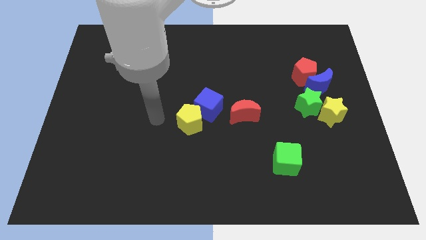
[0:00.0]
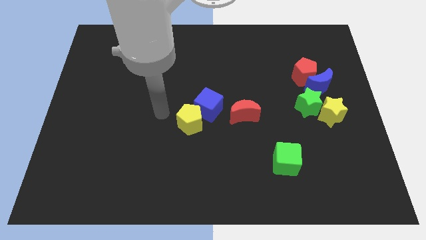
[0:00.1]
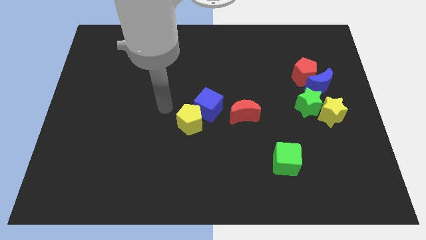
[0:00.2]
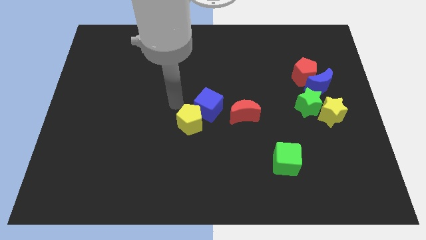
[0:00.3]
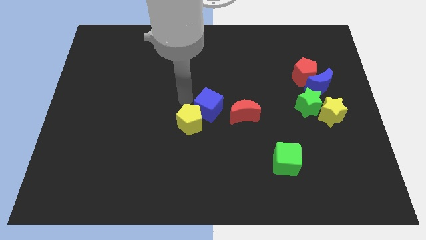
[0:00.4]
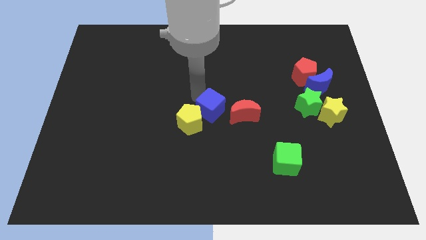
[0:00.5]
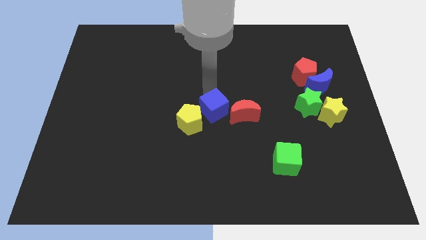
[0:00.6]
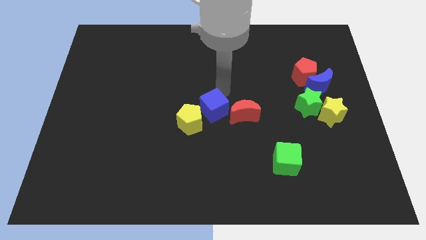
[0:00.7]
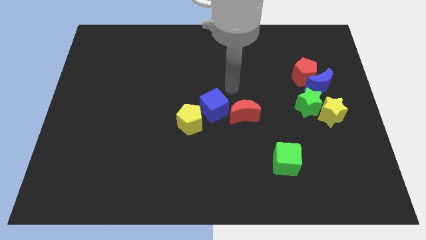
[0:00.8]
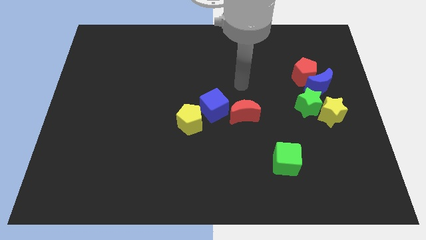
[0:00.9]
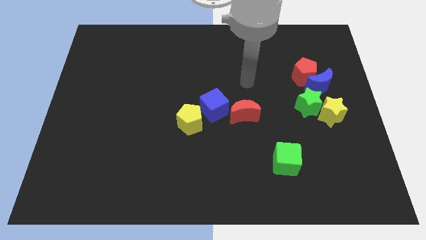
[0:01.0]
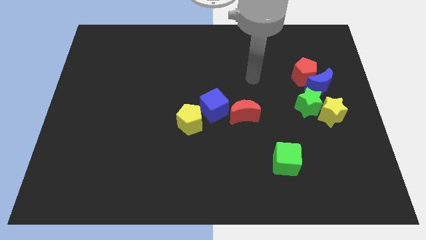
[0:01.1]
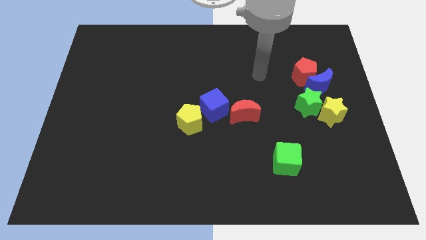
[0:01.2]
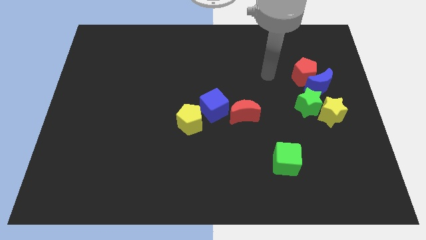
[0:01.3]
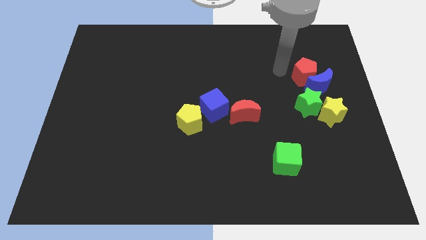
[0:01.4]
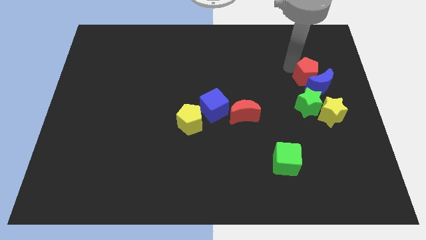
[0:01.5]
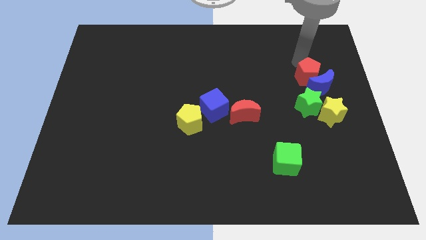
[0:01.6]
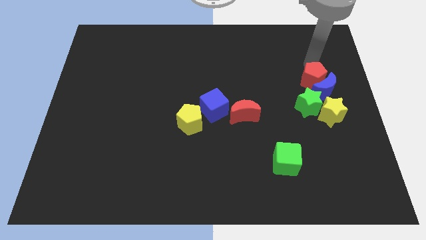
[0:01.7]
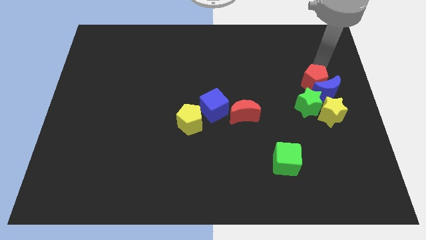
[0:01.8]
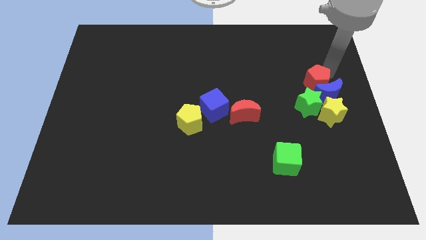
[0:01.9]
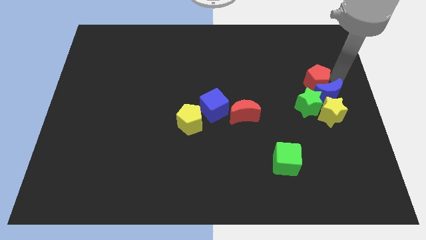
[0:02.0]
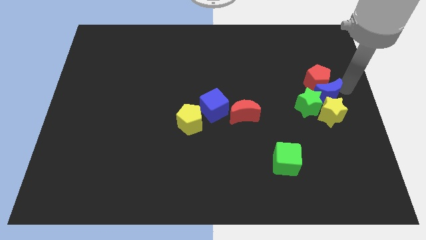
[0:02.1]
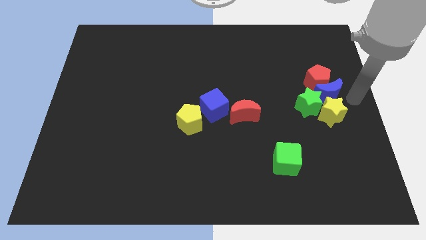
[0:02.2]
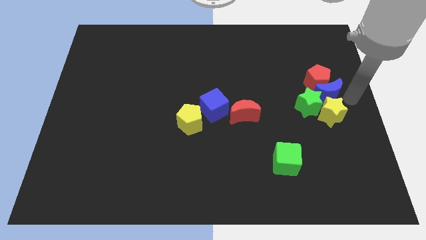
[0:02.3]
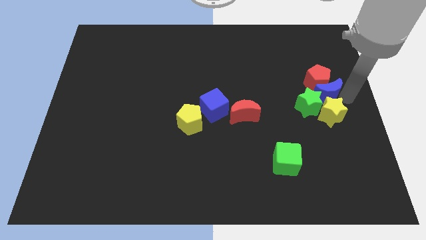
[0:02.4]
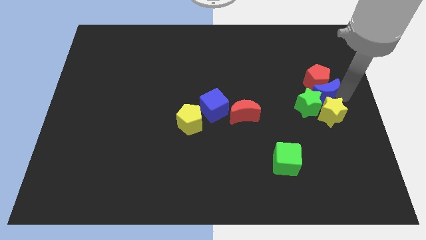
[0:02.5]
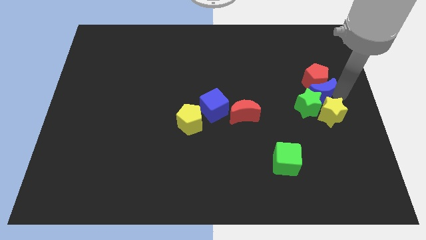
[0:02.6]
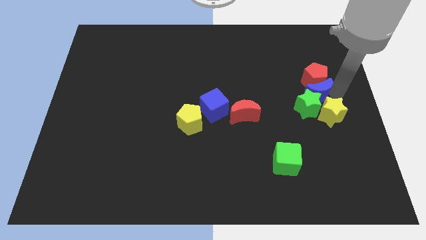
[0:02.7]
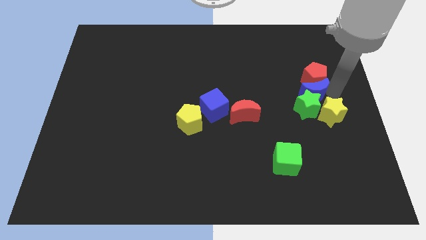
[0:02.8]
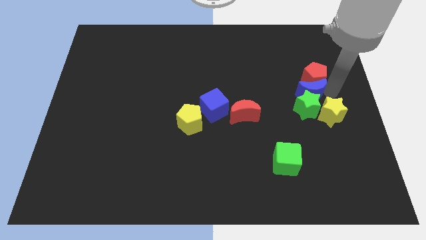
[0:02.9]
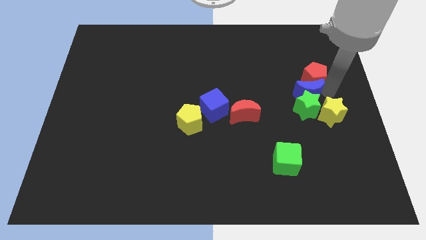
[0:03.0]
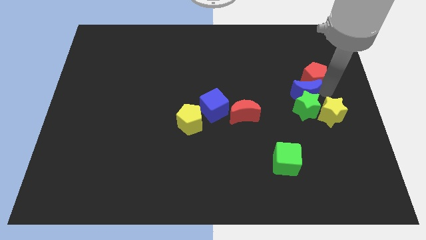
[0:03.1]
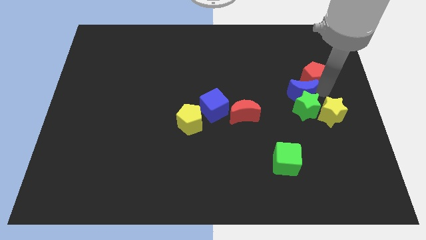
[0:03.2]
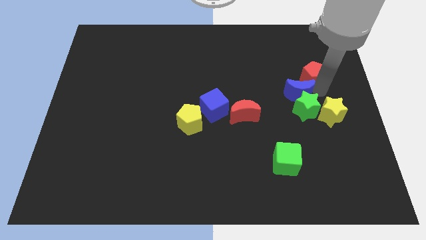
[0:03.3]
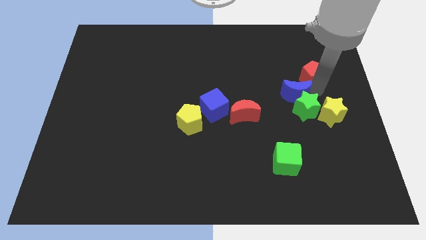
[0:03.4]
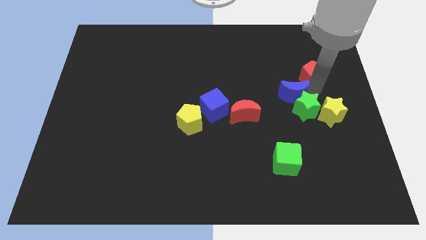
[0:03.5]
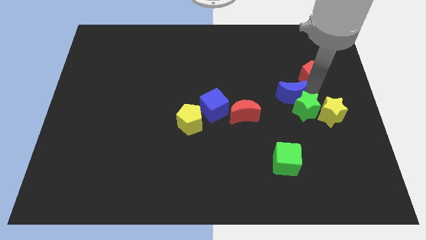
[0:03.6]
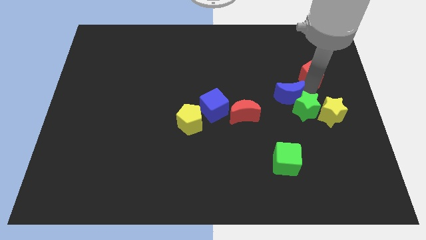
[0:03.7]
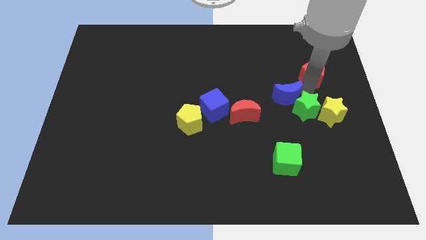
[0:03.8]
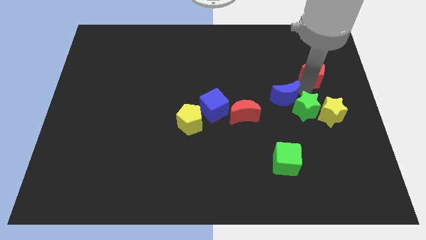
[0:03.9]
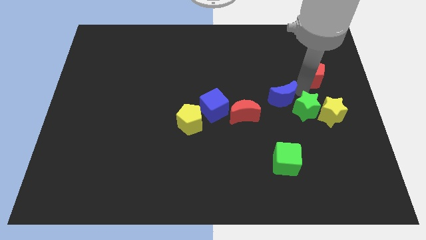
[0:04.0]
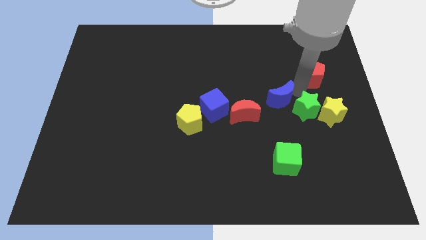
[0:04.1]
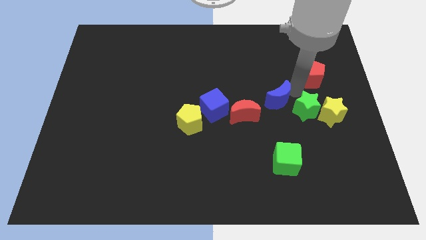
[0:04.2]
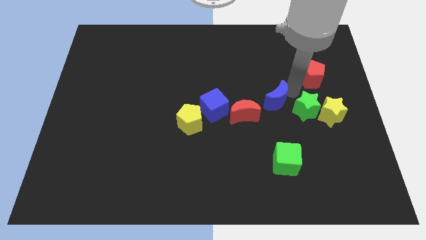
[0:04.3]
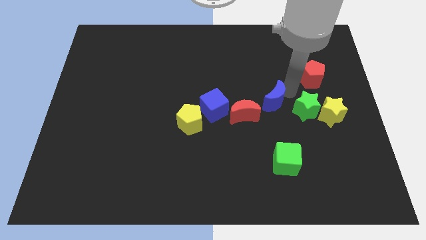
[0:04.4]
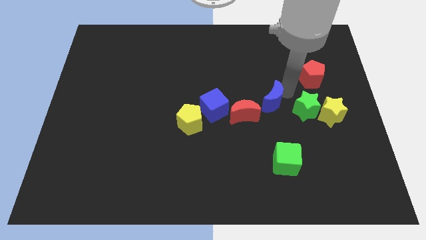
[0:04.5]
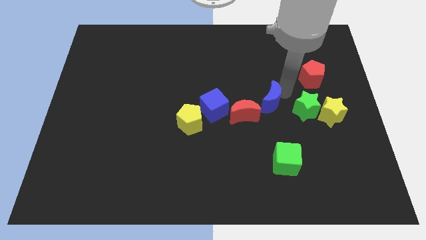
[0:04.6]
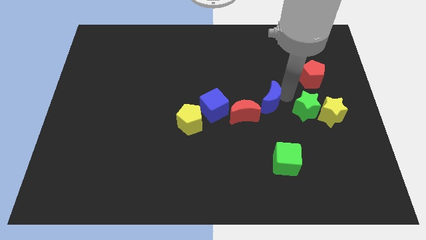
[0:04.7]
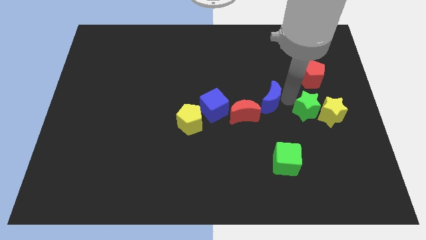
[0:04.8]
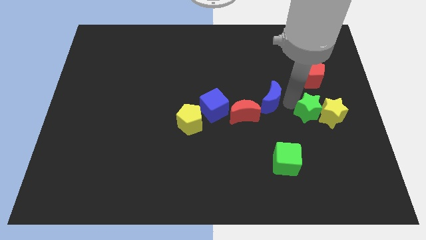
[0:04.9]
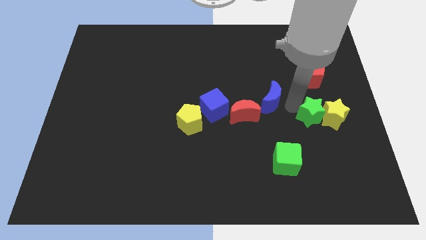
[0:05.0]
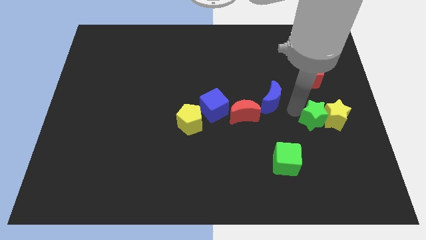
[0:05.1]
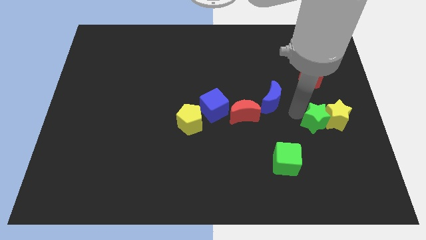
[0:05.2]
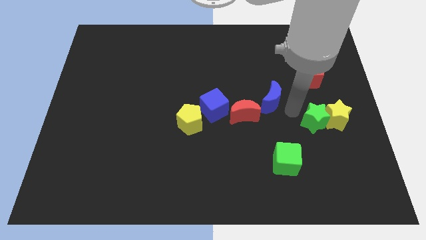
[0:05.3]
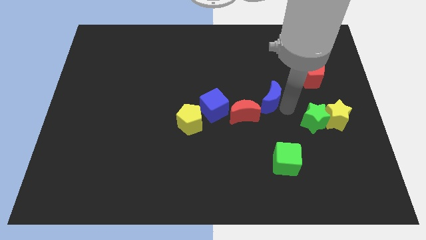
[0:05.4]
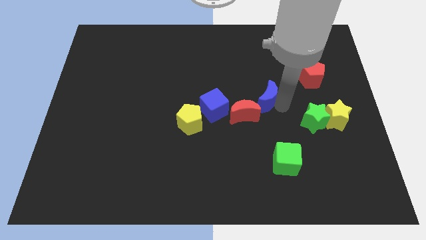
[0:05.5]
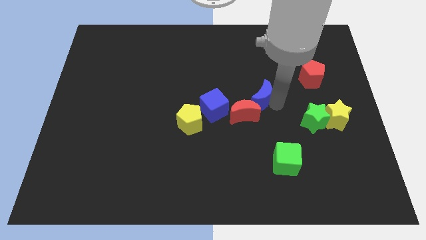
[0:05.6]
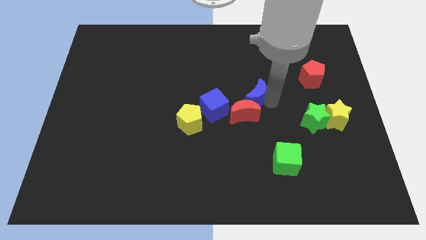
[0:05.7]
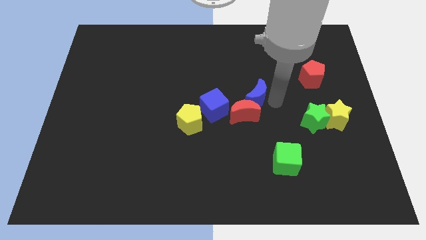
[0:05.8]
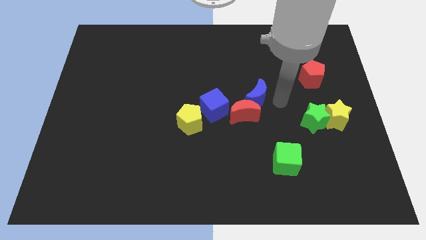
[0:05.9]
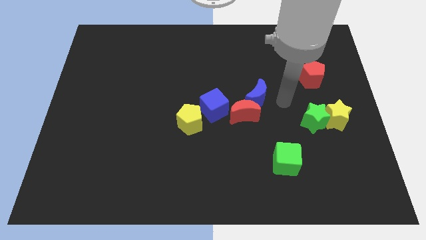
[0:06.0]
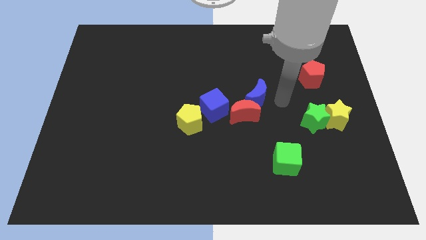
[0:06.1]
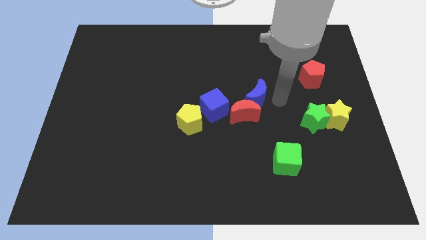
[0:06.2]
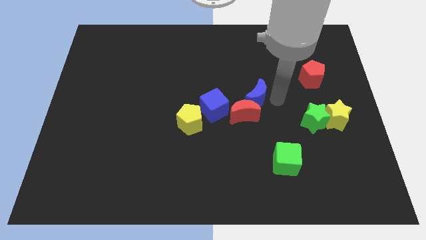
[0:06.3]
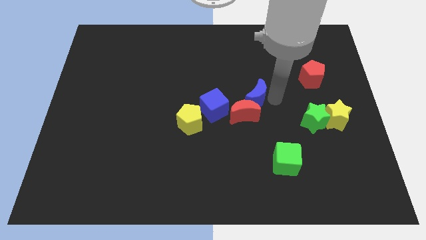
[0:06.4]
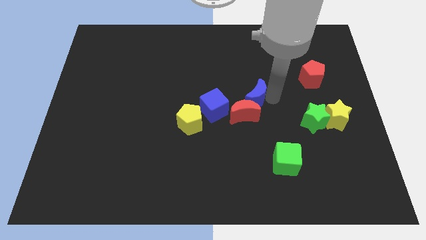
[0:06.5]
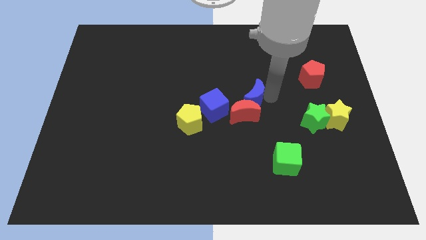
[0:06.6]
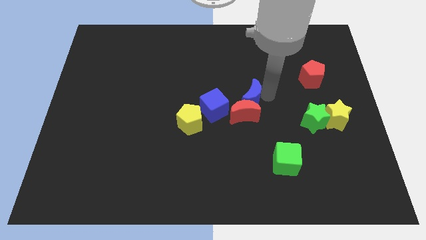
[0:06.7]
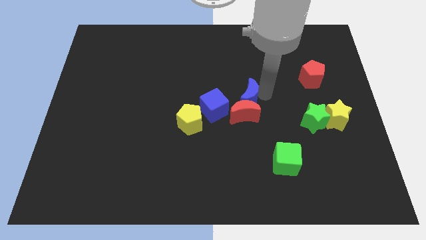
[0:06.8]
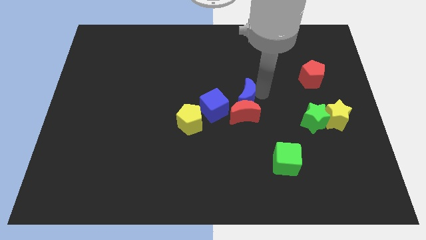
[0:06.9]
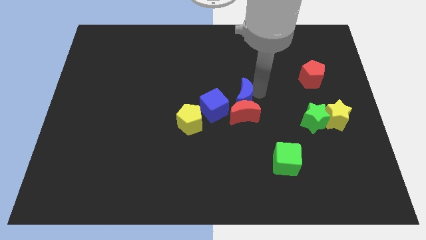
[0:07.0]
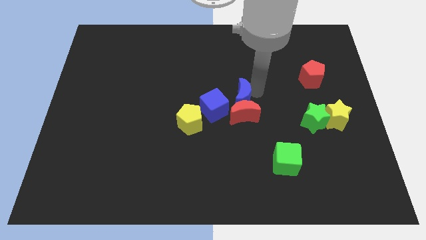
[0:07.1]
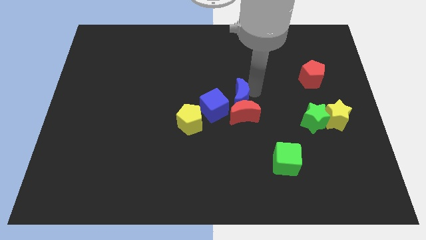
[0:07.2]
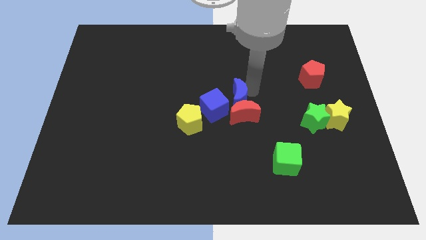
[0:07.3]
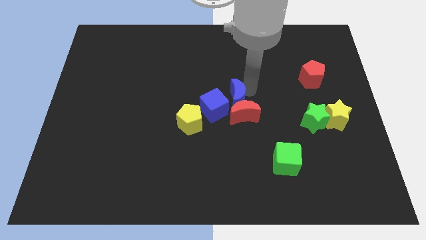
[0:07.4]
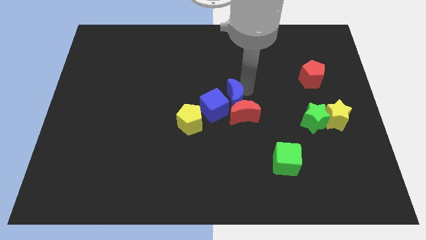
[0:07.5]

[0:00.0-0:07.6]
slide the blue moon close to the blue cube

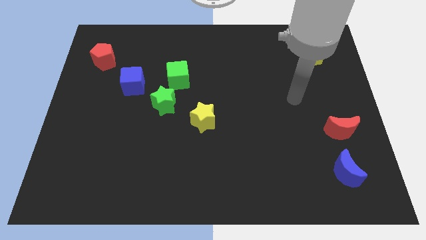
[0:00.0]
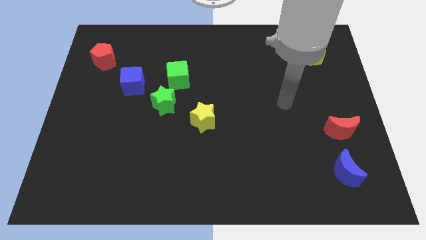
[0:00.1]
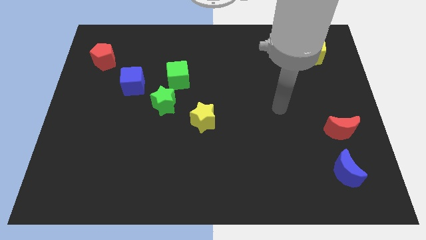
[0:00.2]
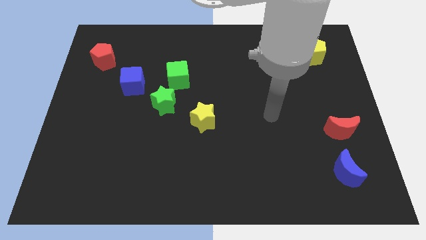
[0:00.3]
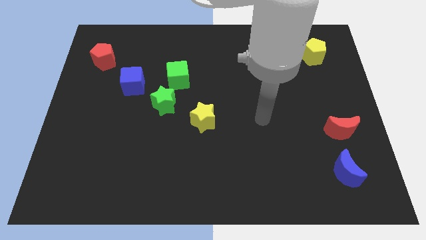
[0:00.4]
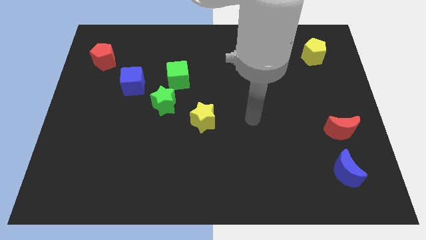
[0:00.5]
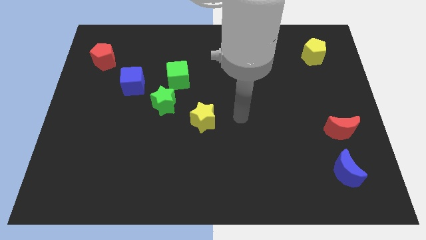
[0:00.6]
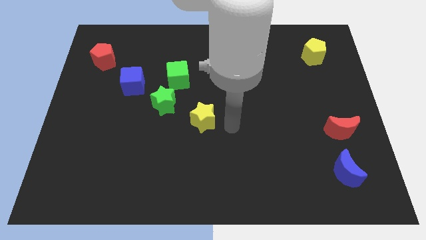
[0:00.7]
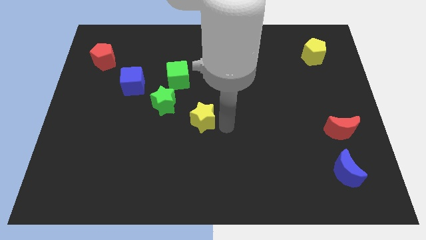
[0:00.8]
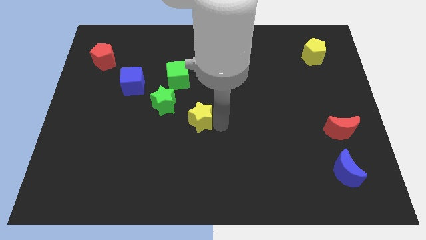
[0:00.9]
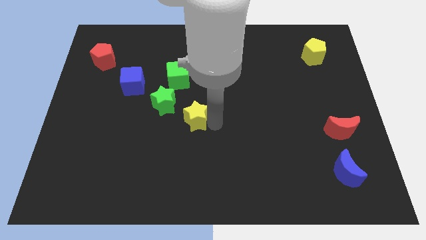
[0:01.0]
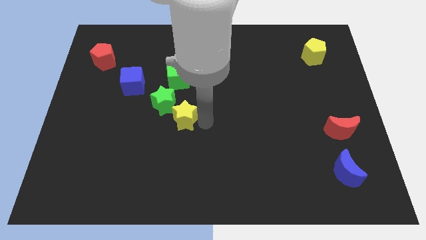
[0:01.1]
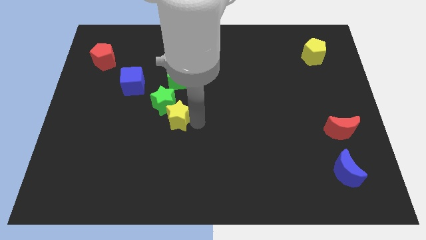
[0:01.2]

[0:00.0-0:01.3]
push the yellow star to the green star
